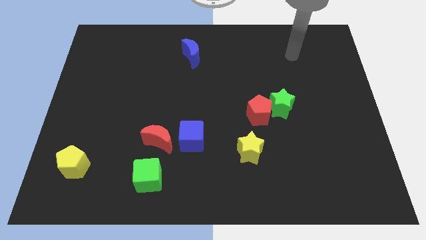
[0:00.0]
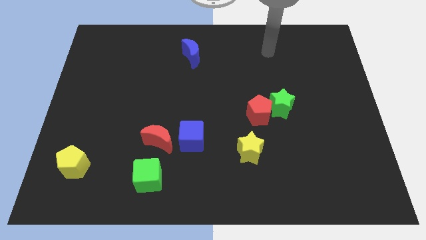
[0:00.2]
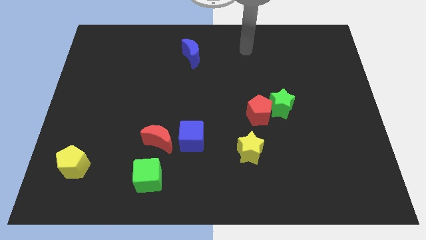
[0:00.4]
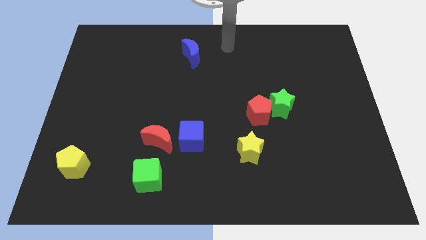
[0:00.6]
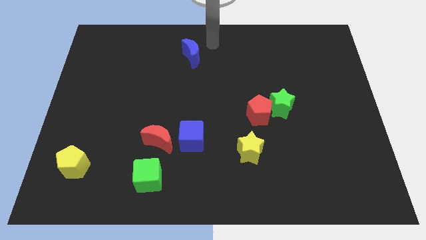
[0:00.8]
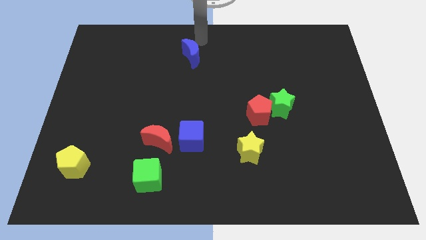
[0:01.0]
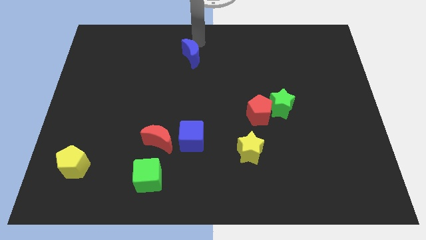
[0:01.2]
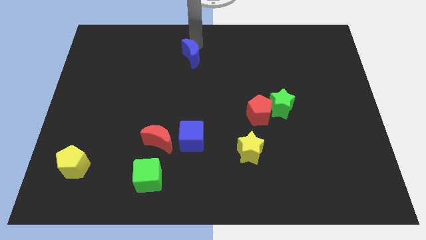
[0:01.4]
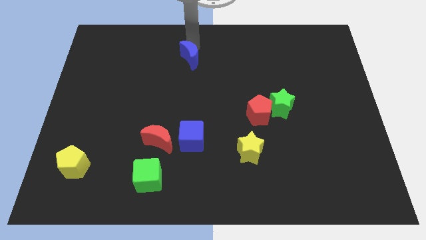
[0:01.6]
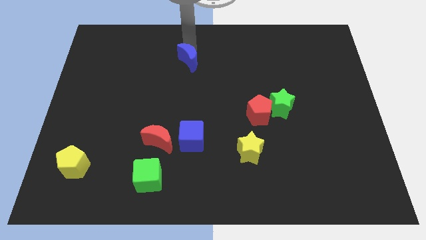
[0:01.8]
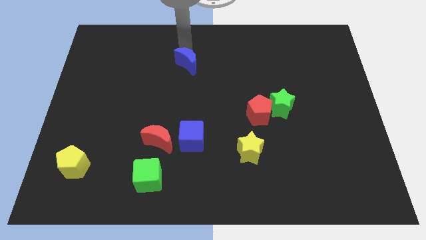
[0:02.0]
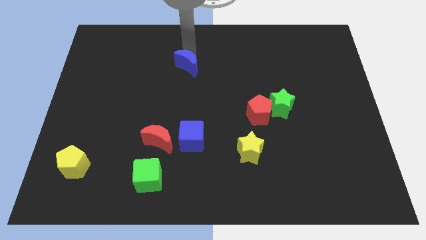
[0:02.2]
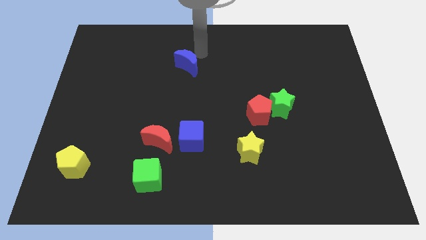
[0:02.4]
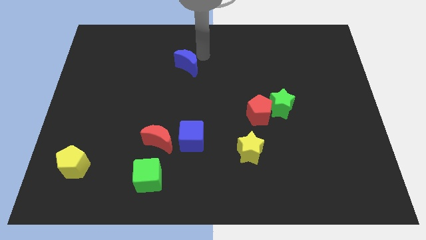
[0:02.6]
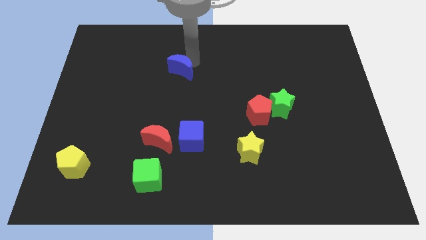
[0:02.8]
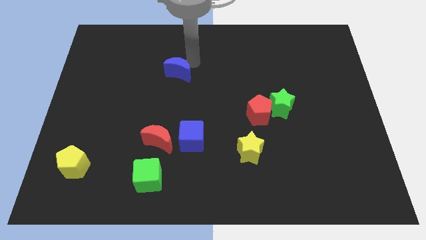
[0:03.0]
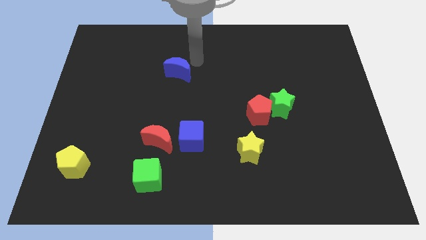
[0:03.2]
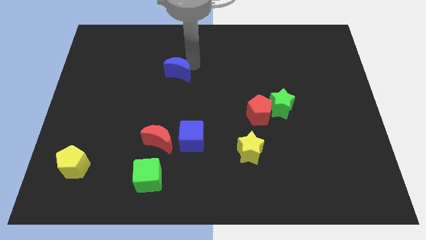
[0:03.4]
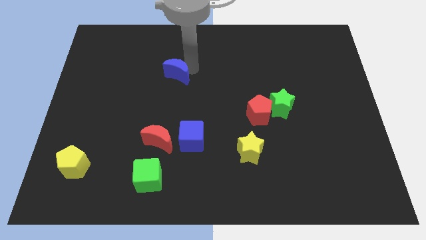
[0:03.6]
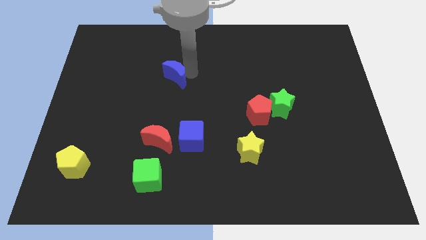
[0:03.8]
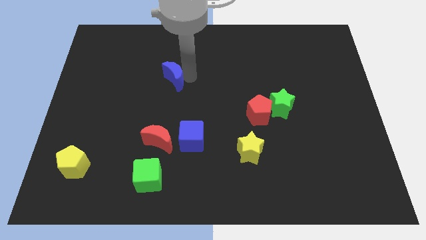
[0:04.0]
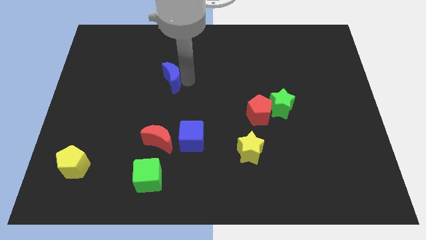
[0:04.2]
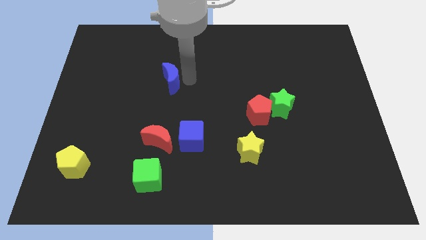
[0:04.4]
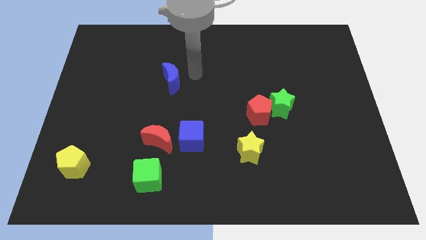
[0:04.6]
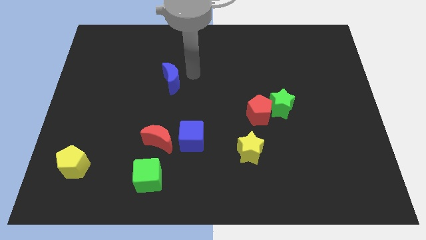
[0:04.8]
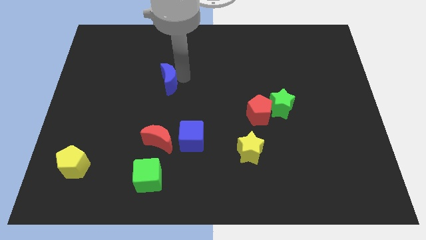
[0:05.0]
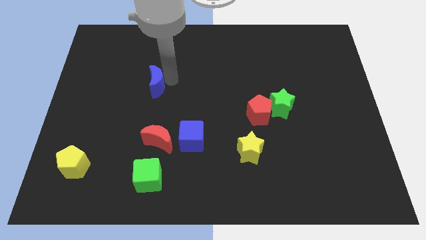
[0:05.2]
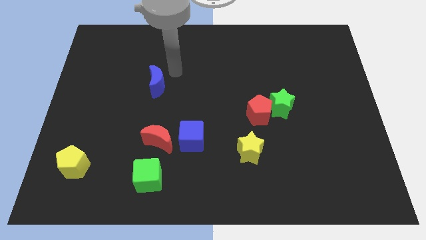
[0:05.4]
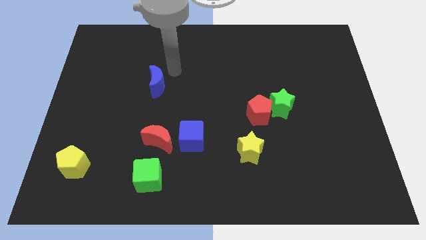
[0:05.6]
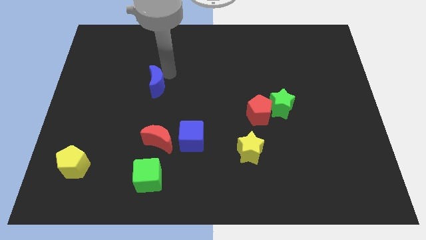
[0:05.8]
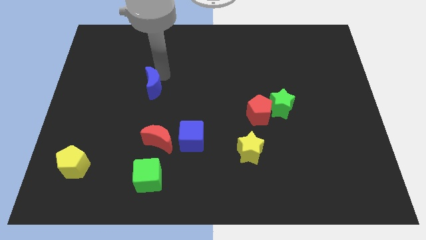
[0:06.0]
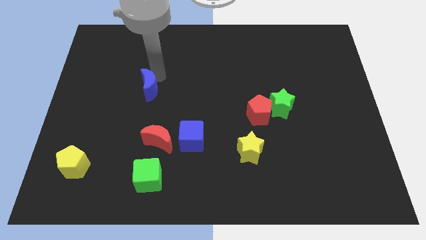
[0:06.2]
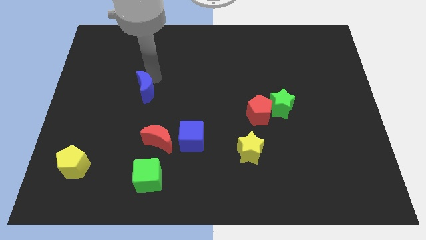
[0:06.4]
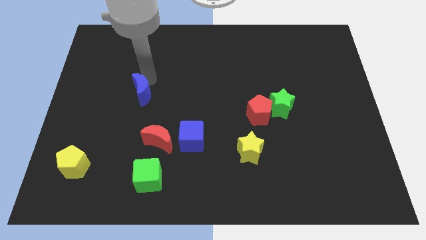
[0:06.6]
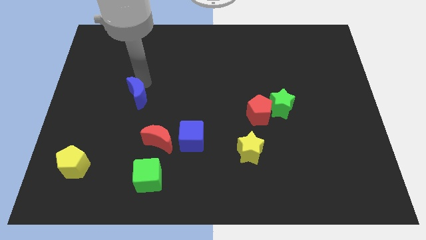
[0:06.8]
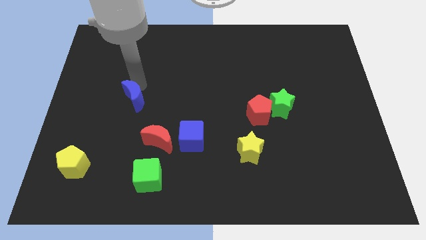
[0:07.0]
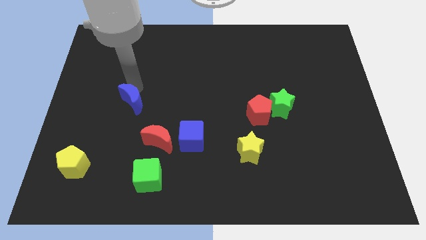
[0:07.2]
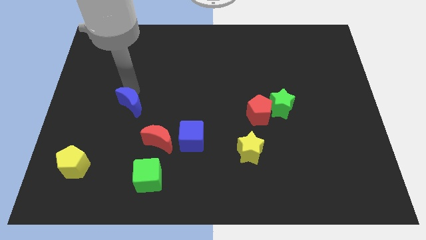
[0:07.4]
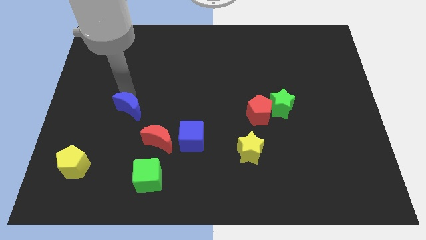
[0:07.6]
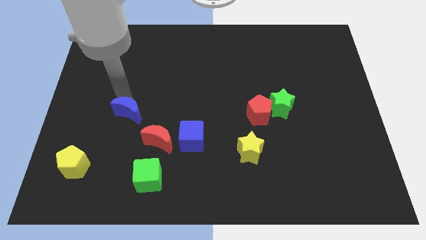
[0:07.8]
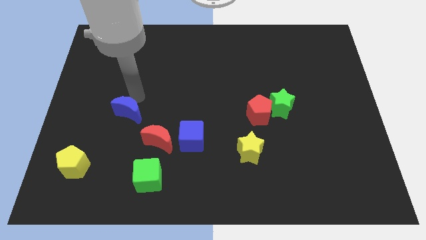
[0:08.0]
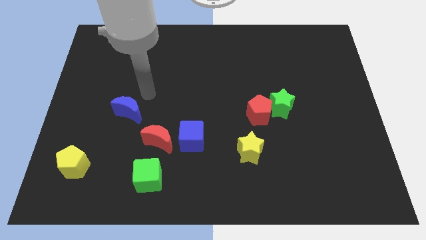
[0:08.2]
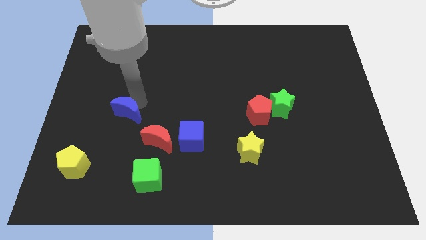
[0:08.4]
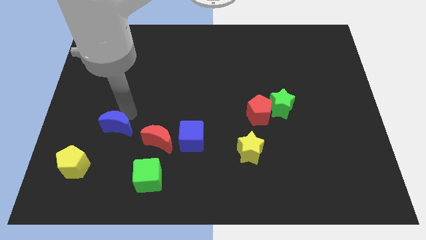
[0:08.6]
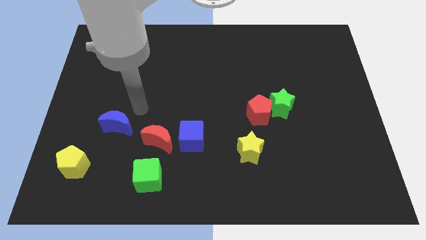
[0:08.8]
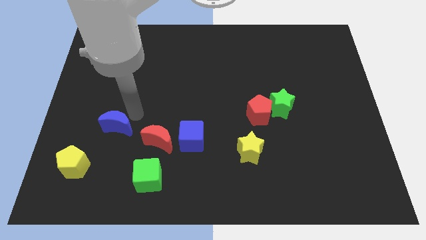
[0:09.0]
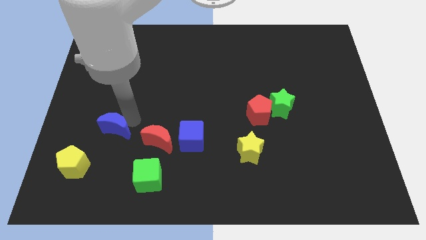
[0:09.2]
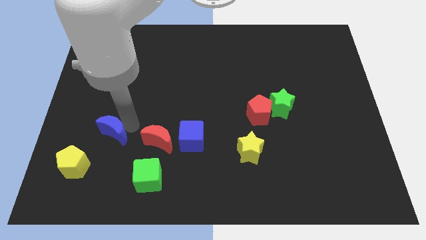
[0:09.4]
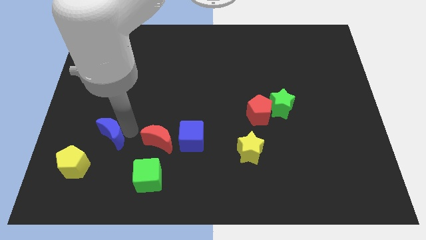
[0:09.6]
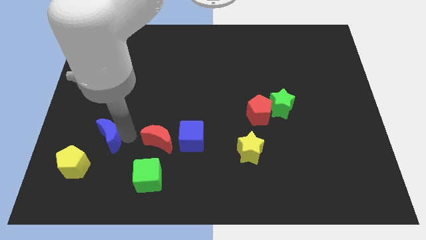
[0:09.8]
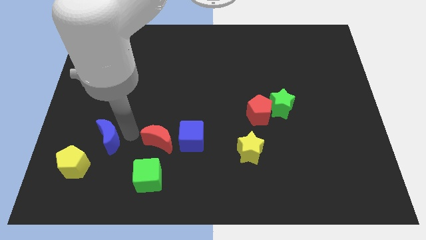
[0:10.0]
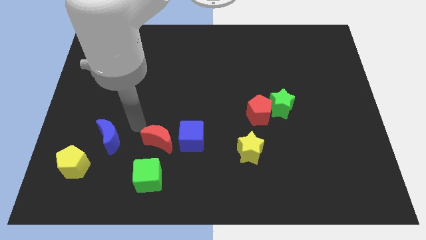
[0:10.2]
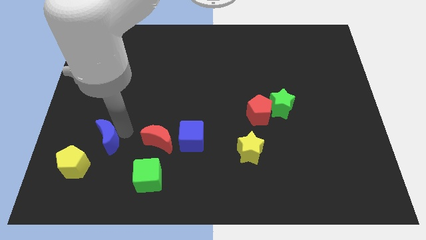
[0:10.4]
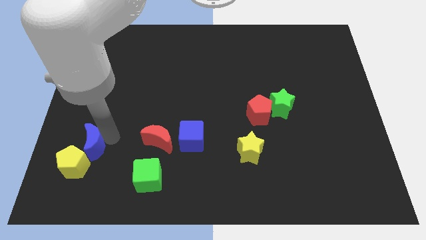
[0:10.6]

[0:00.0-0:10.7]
slide the blue moon to the yellow pentagon
